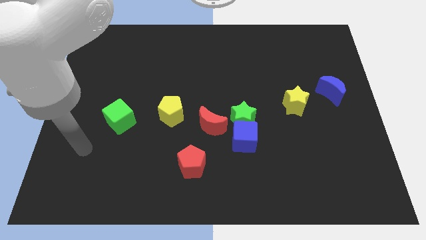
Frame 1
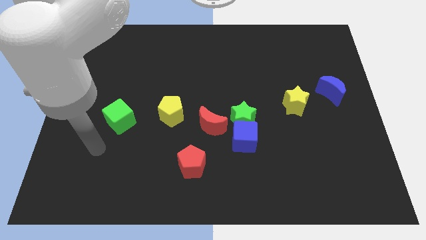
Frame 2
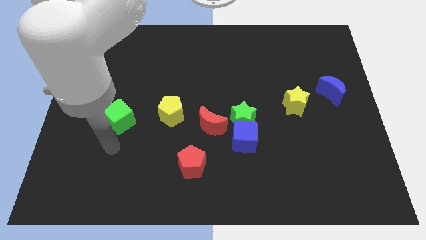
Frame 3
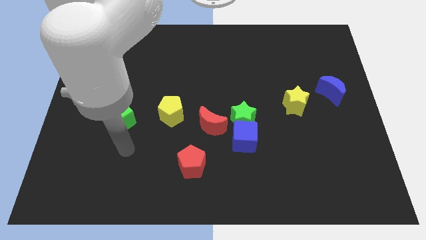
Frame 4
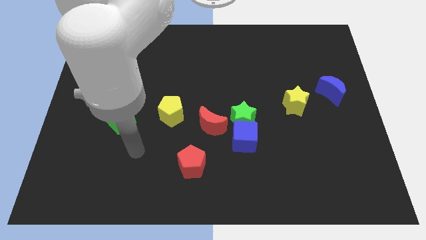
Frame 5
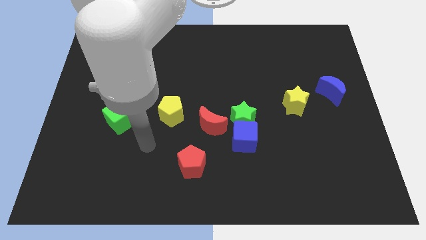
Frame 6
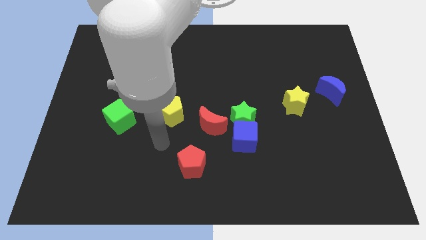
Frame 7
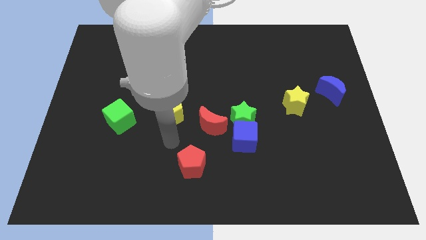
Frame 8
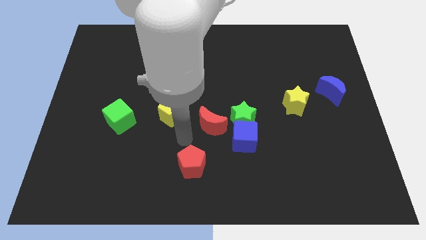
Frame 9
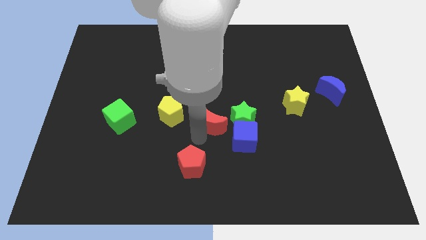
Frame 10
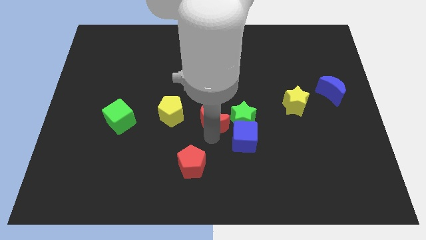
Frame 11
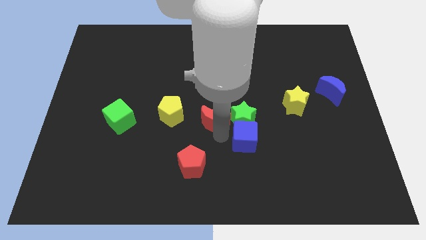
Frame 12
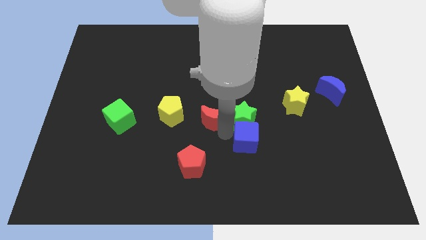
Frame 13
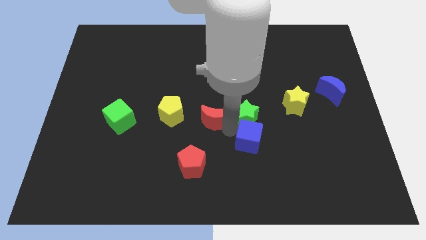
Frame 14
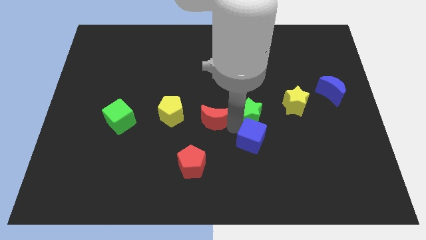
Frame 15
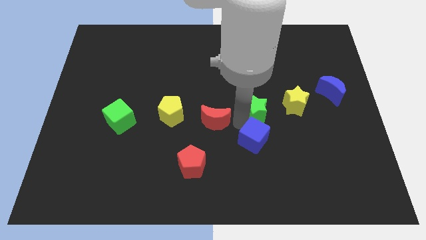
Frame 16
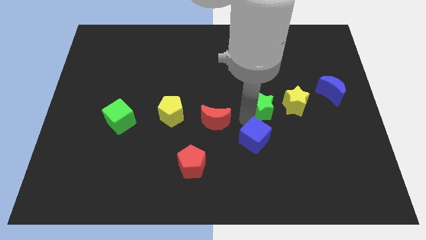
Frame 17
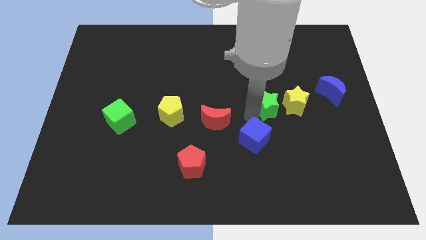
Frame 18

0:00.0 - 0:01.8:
pull the green star apart from the blue cube and red moon

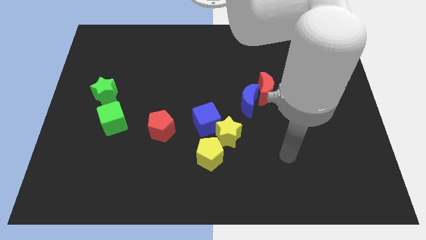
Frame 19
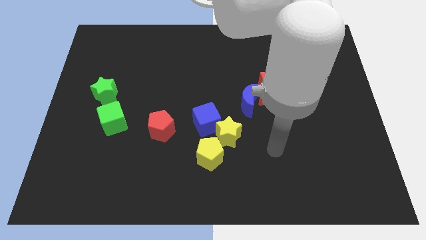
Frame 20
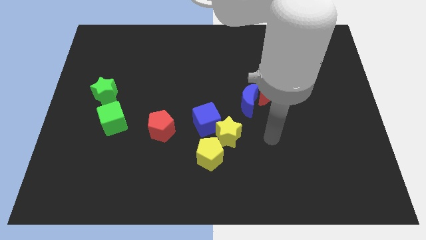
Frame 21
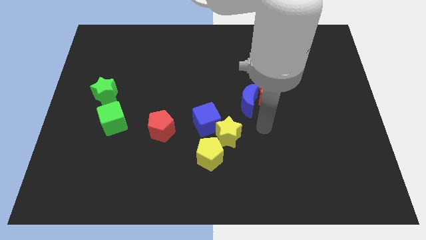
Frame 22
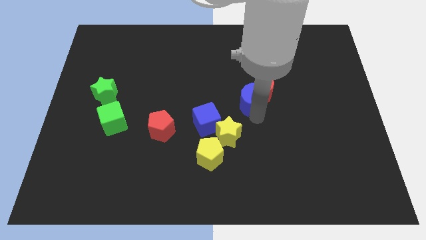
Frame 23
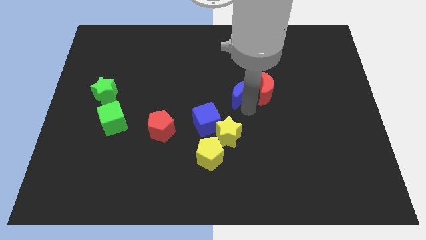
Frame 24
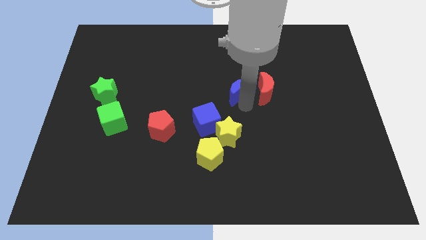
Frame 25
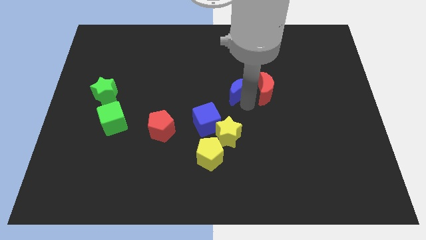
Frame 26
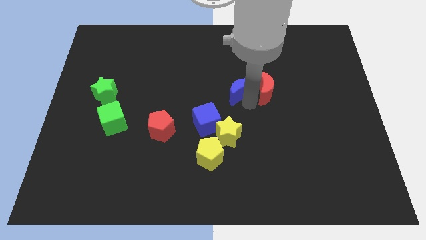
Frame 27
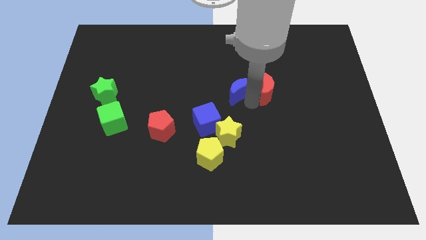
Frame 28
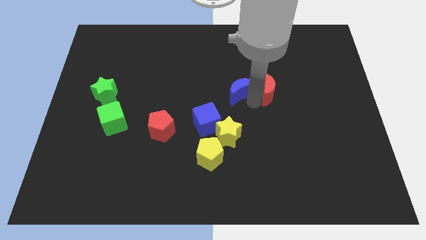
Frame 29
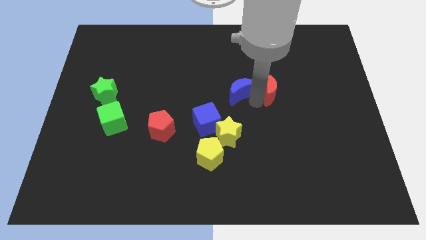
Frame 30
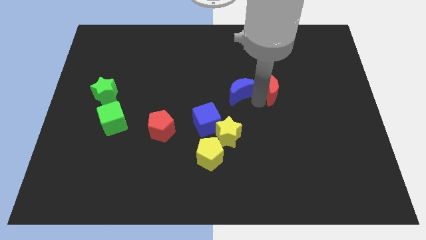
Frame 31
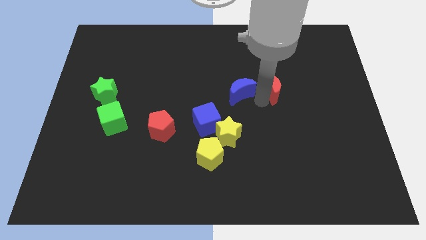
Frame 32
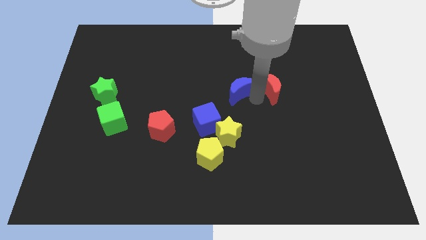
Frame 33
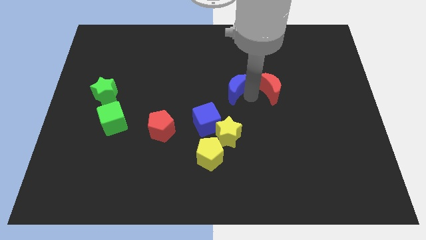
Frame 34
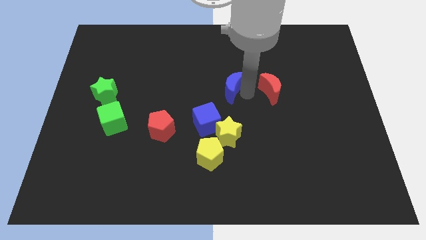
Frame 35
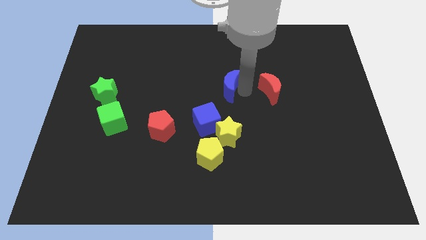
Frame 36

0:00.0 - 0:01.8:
pull the red moon apart from the blue moon

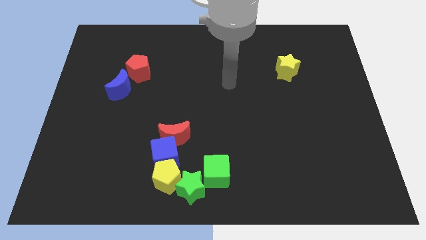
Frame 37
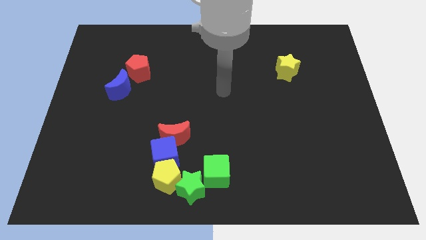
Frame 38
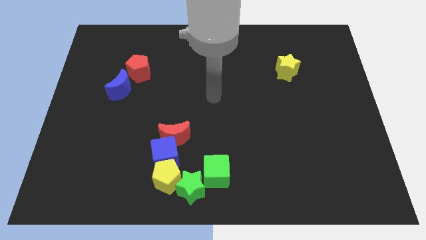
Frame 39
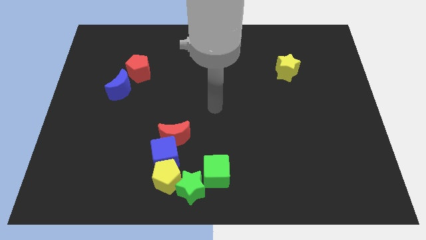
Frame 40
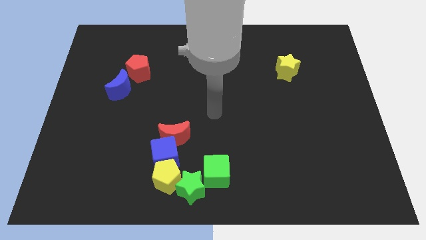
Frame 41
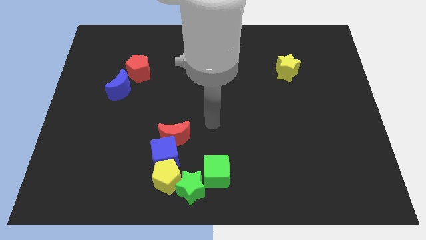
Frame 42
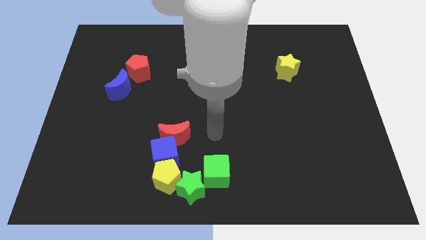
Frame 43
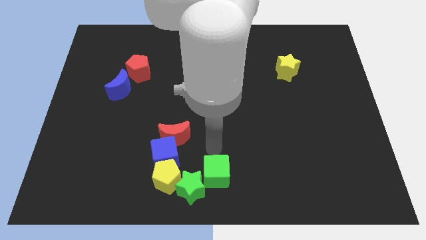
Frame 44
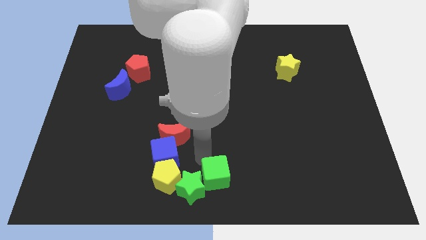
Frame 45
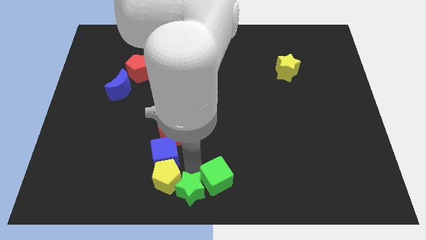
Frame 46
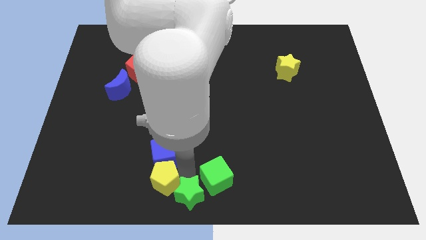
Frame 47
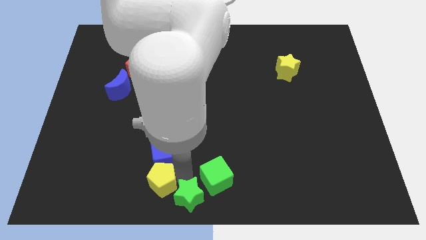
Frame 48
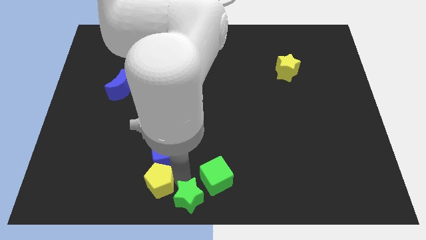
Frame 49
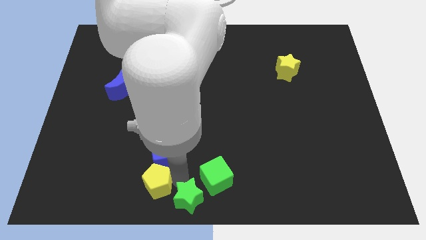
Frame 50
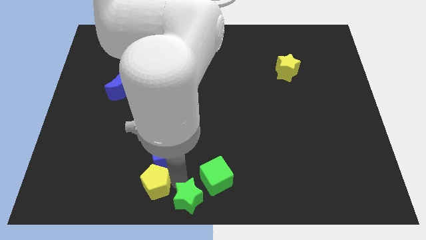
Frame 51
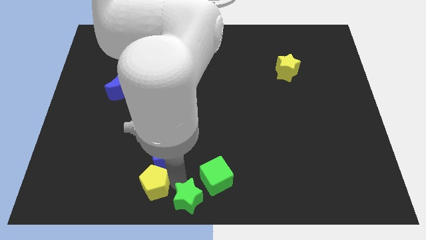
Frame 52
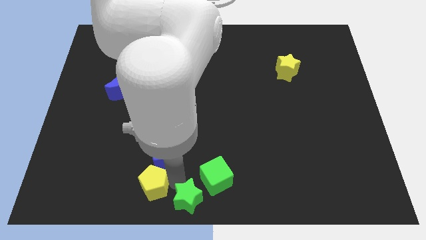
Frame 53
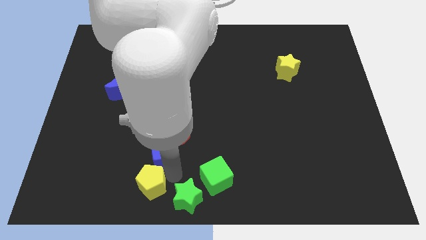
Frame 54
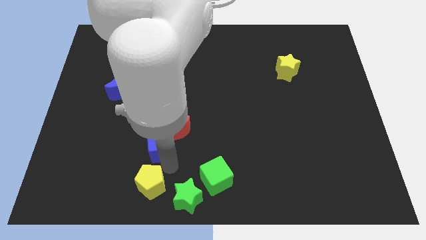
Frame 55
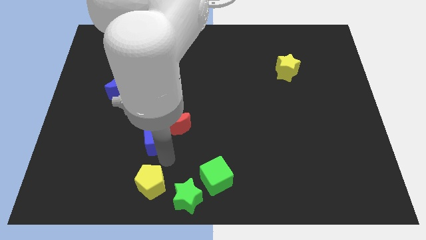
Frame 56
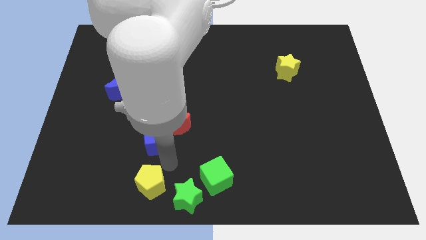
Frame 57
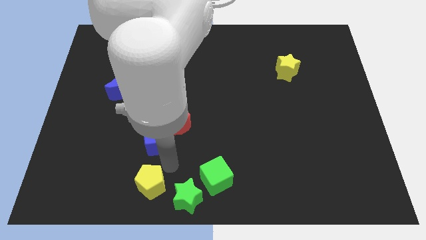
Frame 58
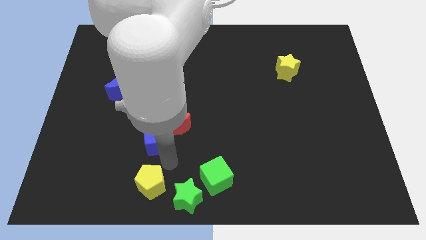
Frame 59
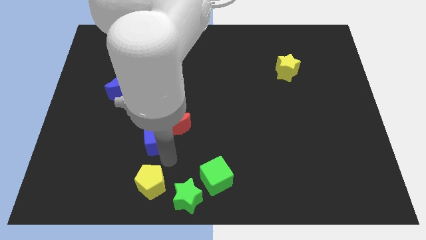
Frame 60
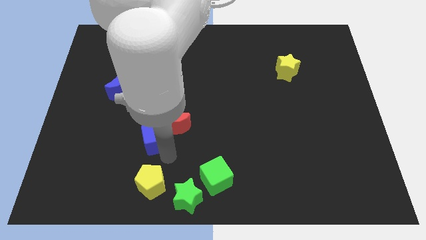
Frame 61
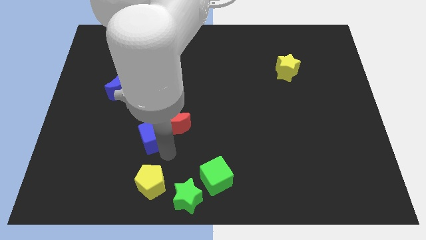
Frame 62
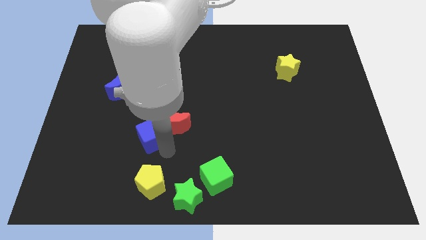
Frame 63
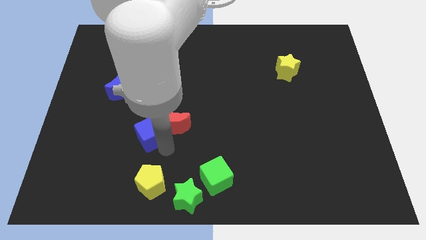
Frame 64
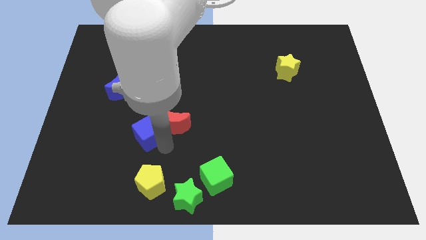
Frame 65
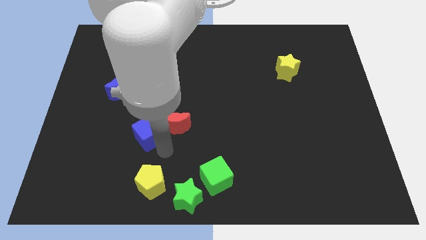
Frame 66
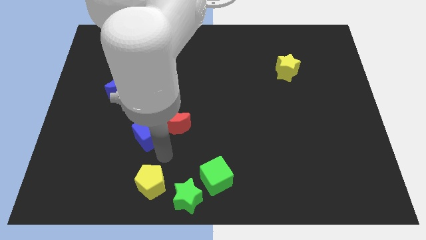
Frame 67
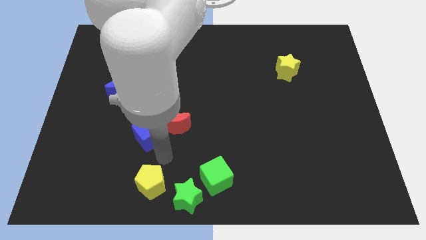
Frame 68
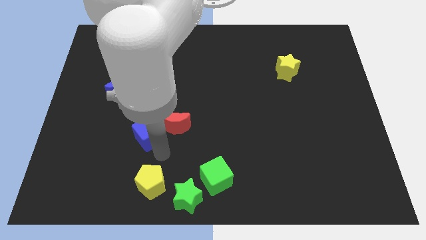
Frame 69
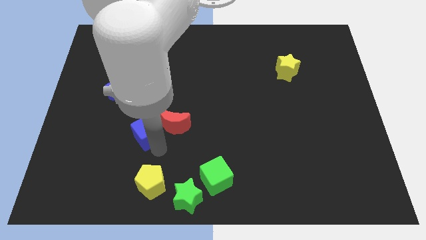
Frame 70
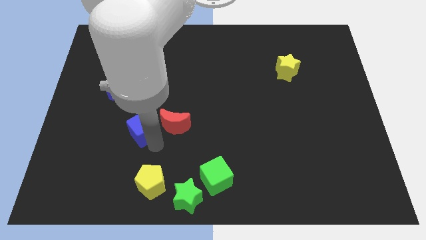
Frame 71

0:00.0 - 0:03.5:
move the blue cube away from the clump

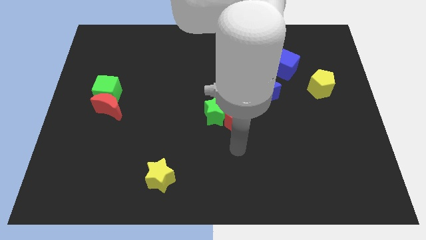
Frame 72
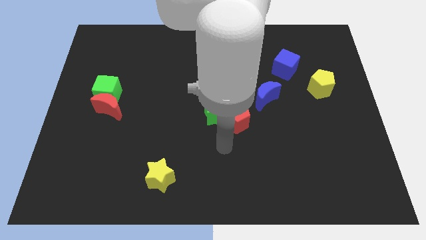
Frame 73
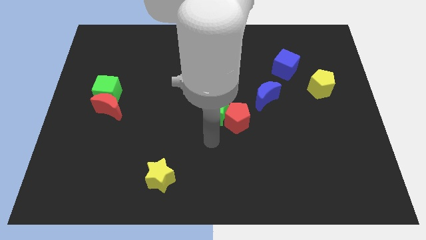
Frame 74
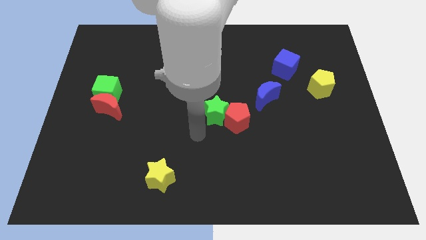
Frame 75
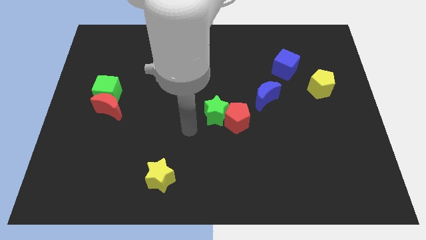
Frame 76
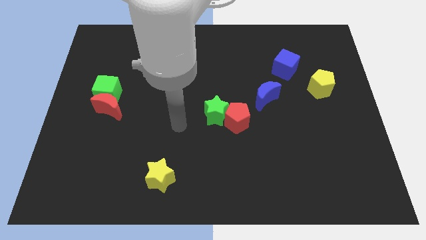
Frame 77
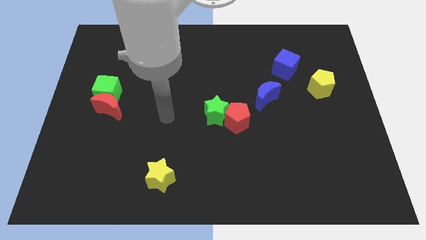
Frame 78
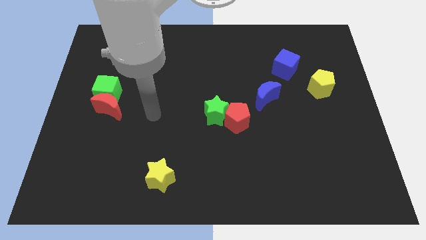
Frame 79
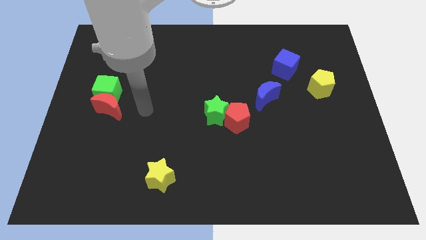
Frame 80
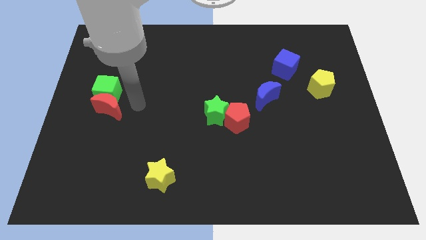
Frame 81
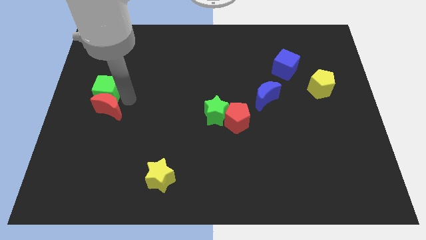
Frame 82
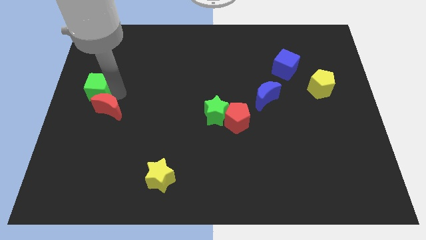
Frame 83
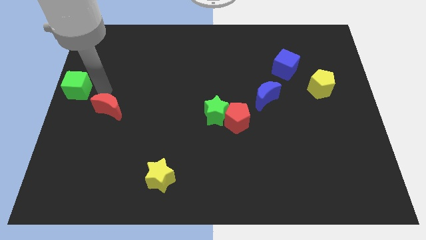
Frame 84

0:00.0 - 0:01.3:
move the red moon away from the green cube

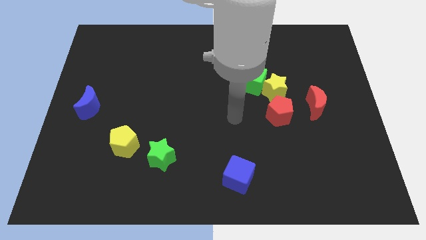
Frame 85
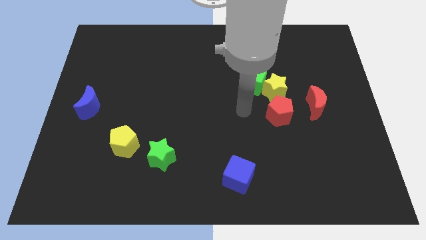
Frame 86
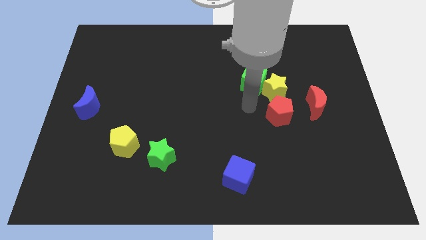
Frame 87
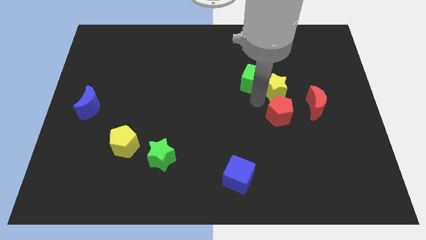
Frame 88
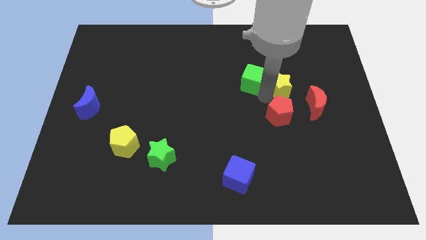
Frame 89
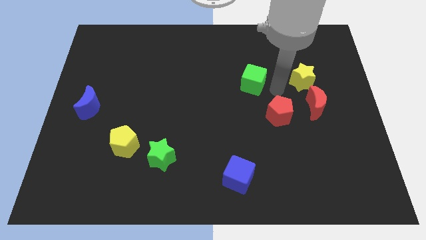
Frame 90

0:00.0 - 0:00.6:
move the green cube away from the yellow star

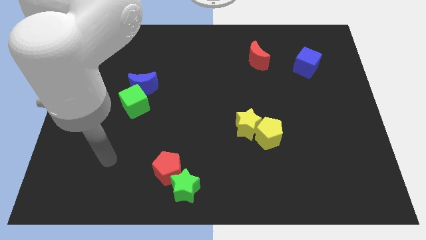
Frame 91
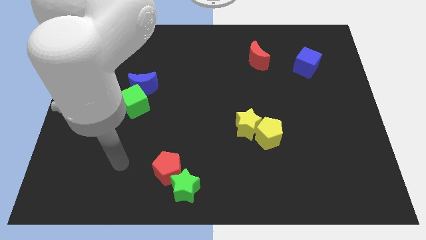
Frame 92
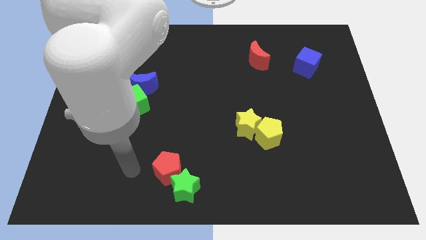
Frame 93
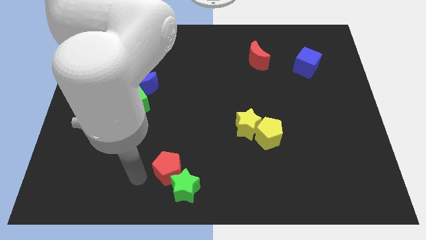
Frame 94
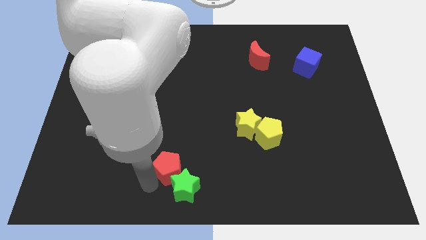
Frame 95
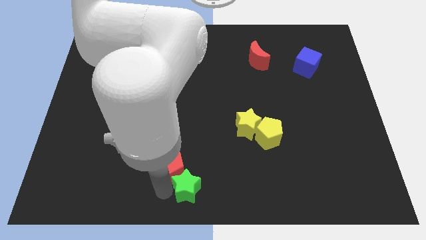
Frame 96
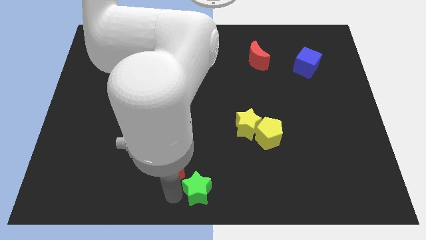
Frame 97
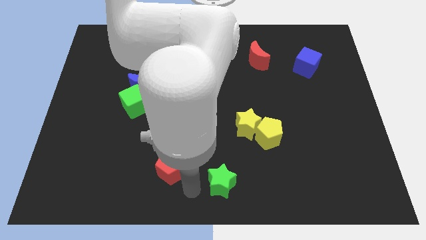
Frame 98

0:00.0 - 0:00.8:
separate the red pentagon from the green star
